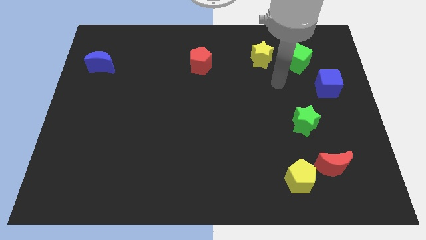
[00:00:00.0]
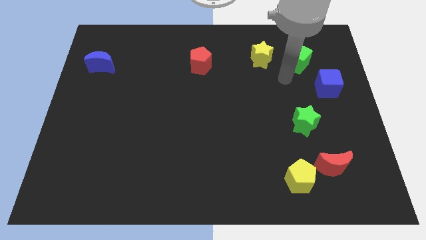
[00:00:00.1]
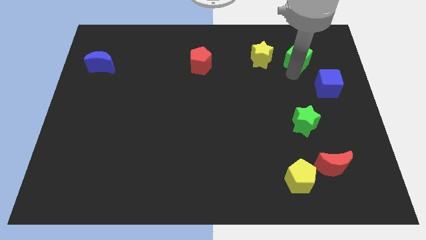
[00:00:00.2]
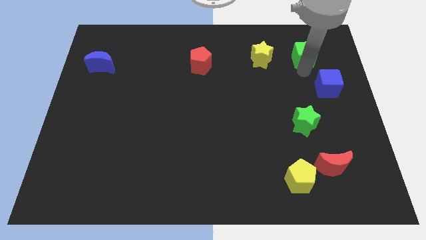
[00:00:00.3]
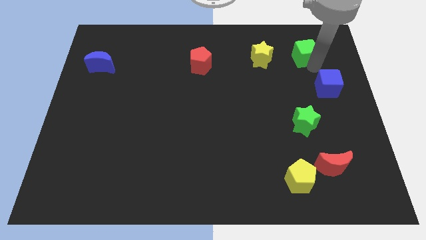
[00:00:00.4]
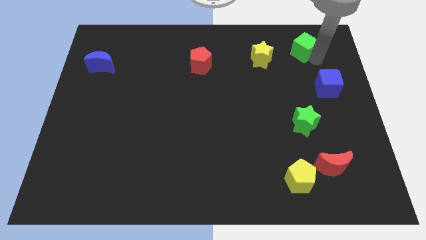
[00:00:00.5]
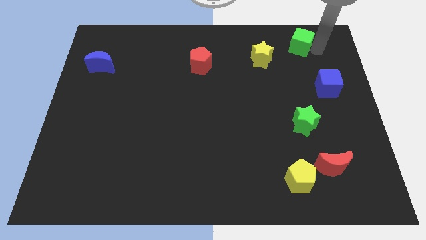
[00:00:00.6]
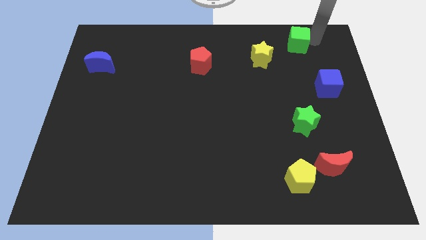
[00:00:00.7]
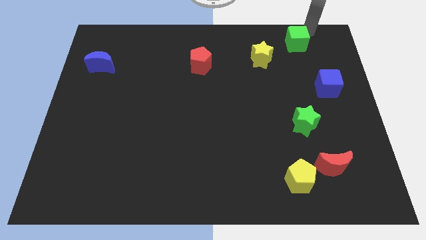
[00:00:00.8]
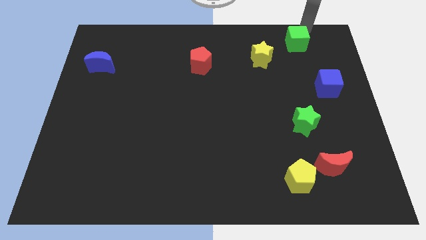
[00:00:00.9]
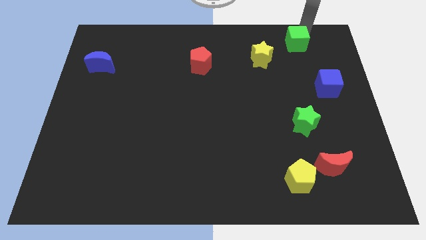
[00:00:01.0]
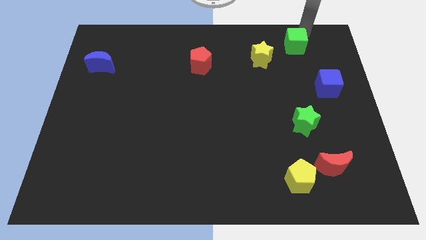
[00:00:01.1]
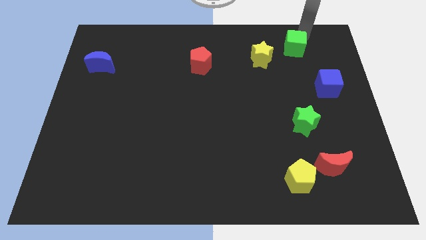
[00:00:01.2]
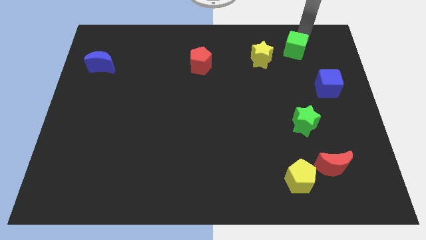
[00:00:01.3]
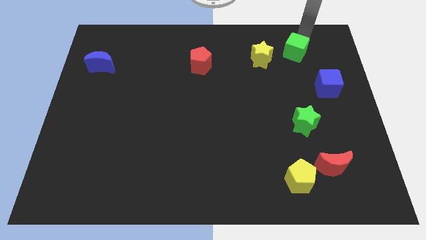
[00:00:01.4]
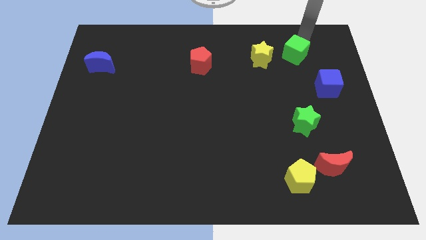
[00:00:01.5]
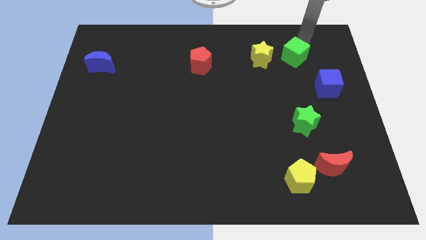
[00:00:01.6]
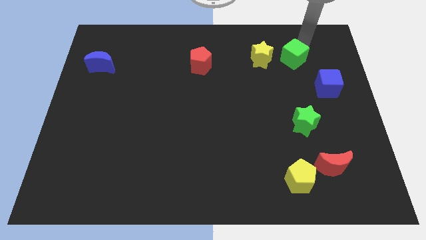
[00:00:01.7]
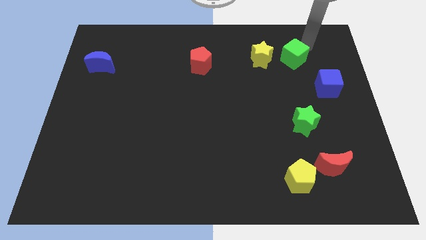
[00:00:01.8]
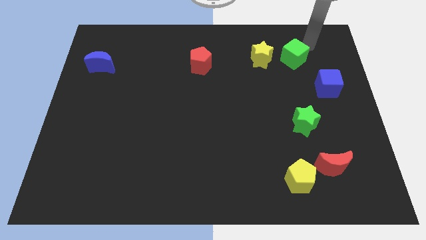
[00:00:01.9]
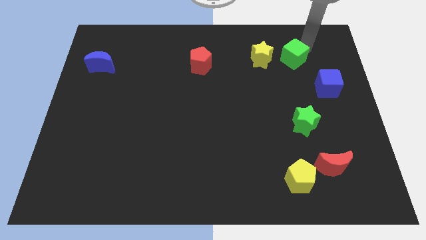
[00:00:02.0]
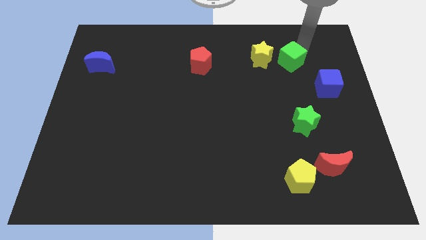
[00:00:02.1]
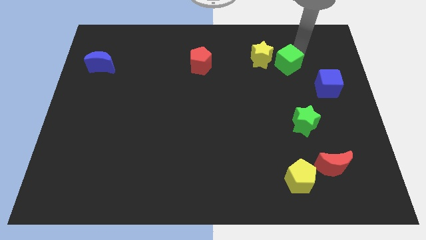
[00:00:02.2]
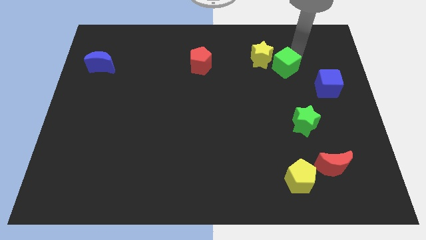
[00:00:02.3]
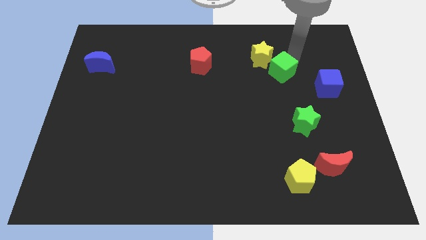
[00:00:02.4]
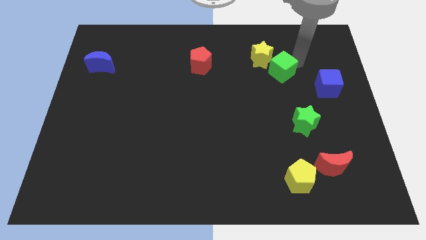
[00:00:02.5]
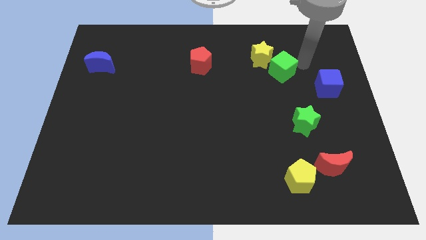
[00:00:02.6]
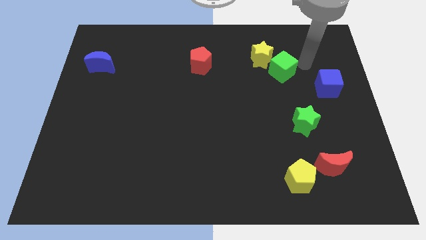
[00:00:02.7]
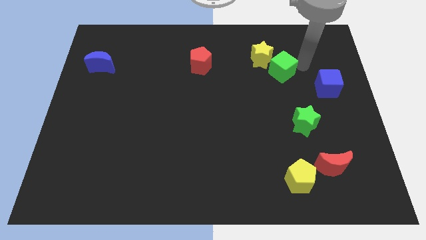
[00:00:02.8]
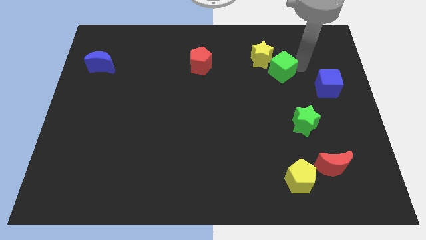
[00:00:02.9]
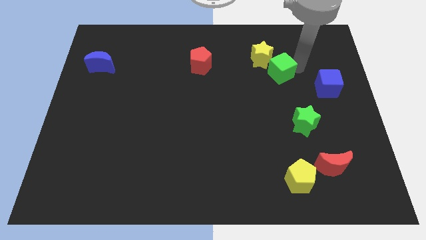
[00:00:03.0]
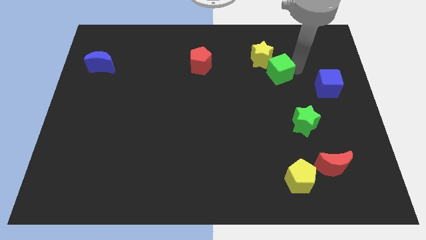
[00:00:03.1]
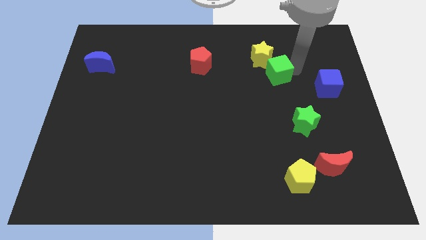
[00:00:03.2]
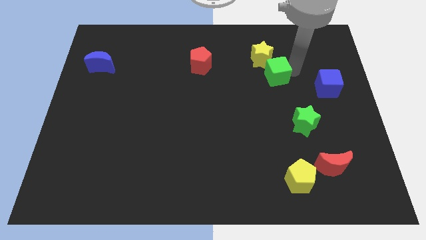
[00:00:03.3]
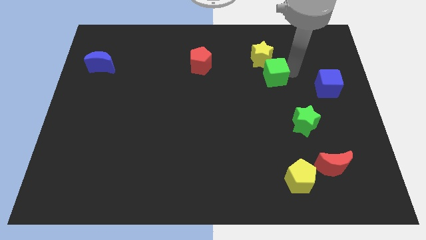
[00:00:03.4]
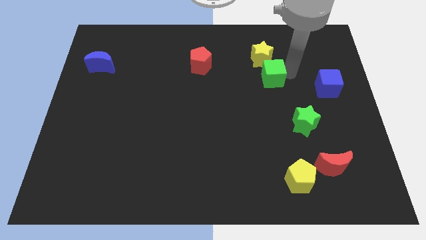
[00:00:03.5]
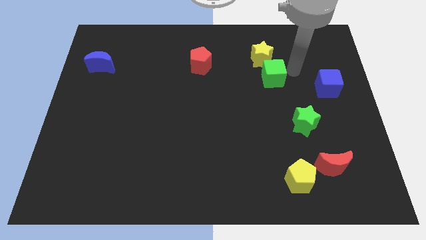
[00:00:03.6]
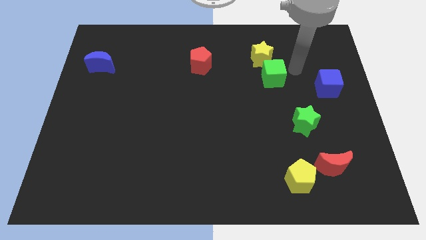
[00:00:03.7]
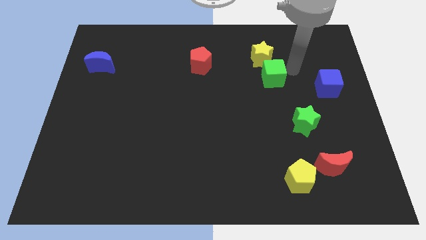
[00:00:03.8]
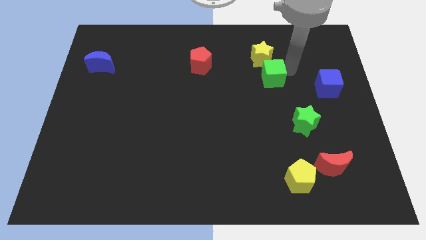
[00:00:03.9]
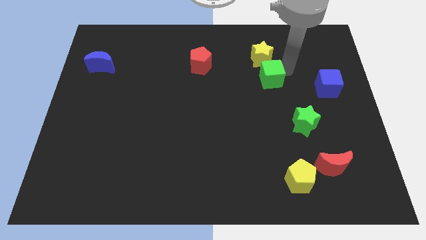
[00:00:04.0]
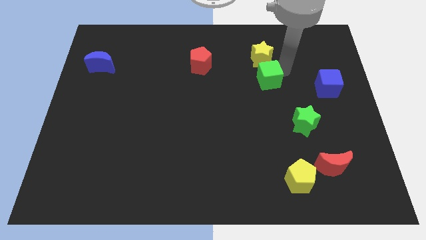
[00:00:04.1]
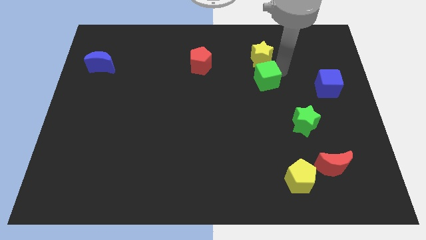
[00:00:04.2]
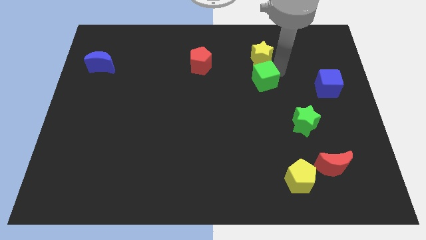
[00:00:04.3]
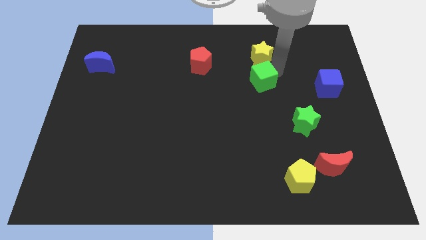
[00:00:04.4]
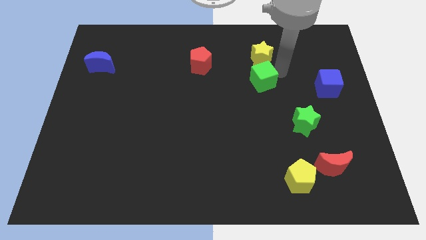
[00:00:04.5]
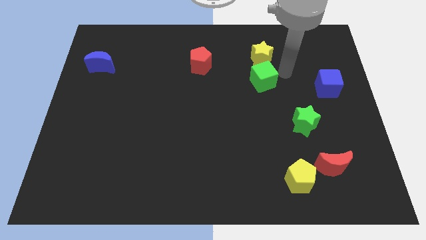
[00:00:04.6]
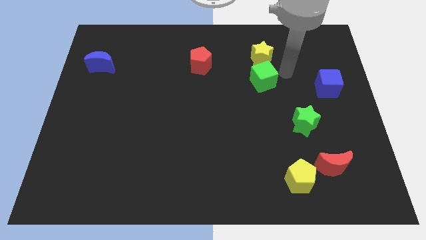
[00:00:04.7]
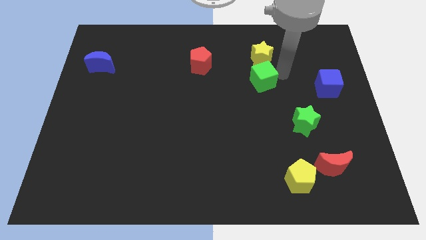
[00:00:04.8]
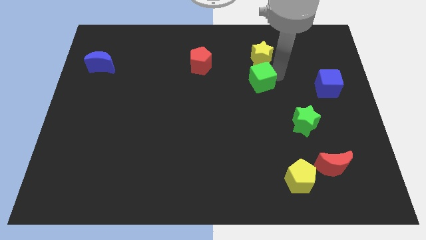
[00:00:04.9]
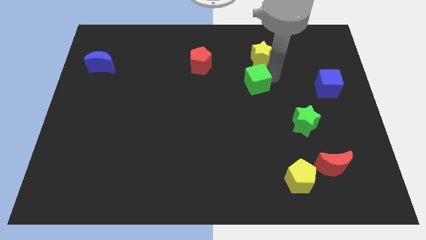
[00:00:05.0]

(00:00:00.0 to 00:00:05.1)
put the green cube to the center

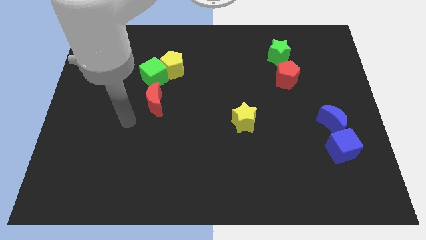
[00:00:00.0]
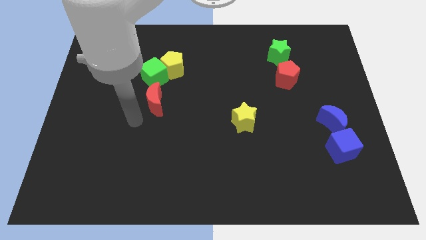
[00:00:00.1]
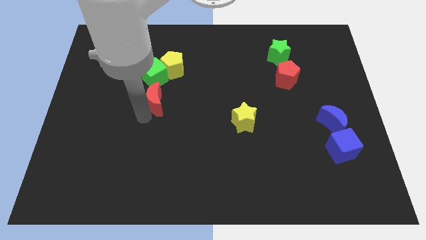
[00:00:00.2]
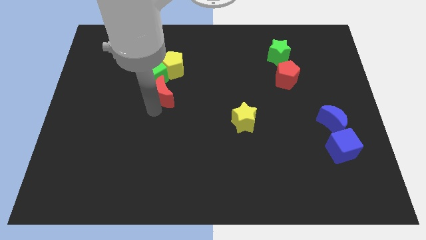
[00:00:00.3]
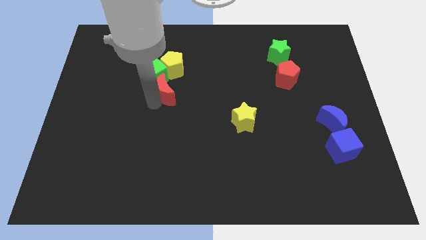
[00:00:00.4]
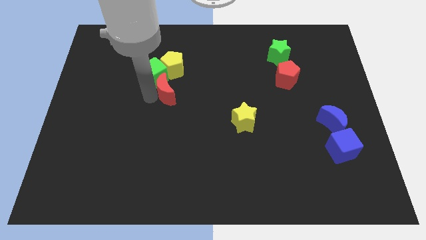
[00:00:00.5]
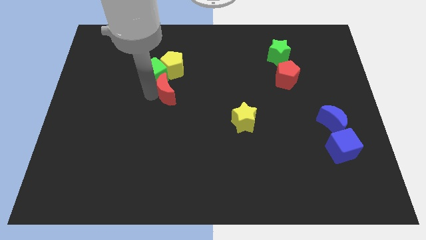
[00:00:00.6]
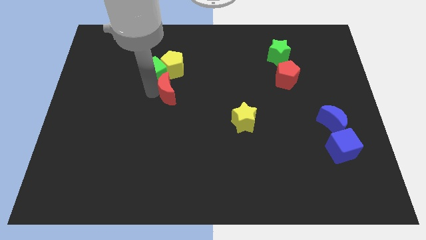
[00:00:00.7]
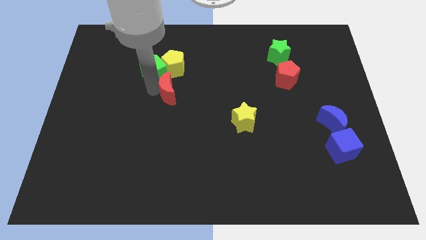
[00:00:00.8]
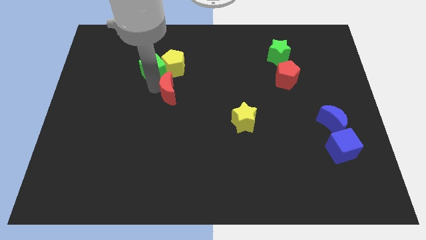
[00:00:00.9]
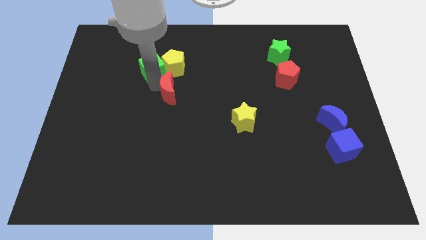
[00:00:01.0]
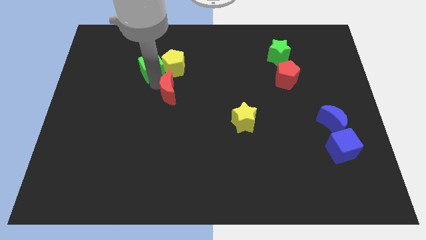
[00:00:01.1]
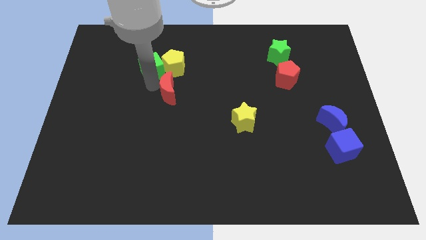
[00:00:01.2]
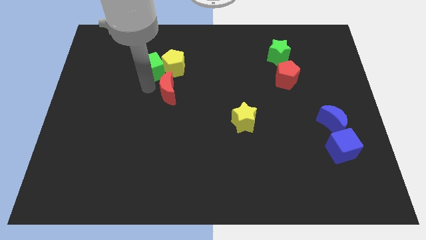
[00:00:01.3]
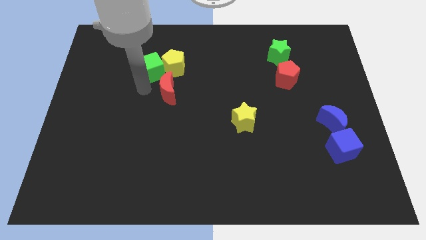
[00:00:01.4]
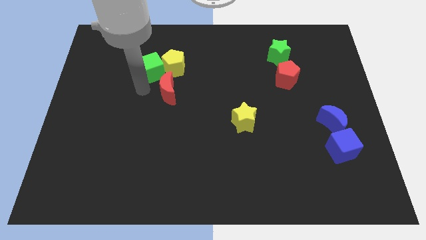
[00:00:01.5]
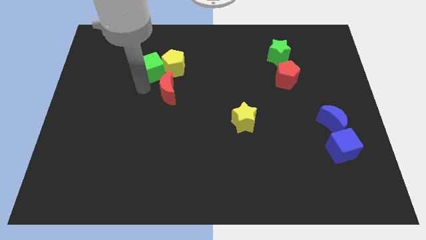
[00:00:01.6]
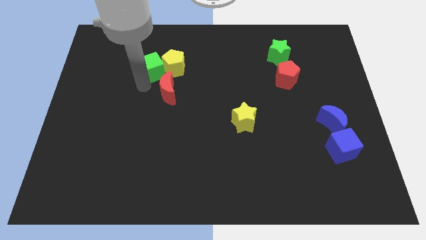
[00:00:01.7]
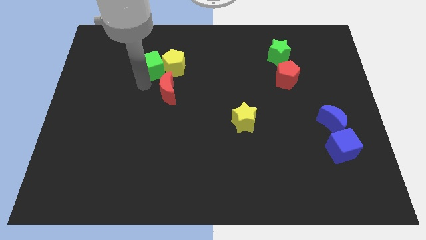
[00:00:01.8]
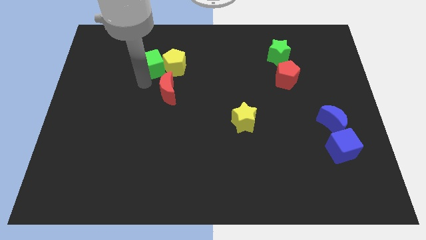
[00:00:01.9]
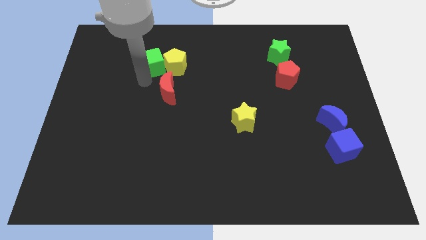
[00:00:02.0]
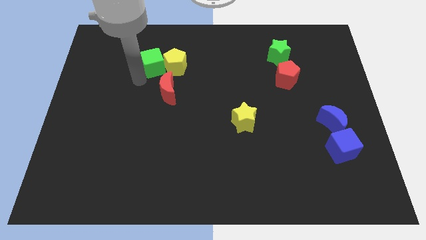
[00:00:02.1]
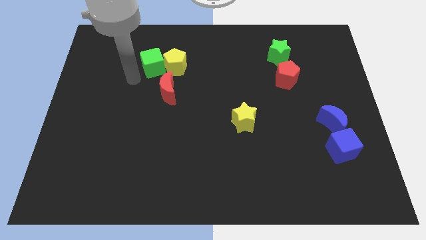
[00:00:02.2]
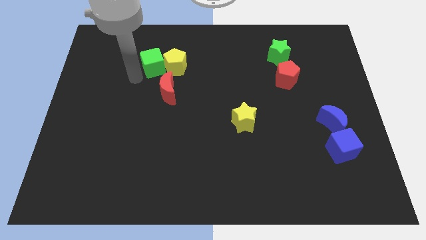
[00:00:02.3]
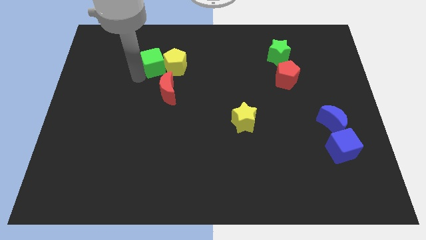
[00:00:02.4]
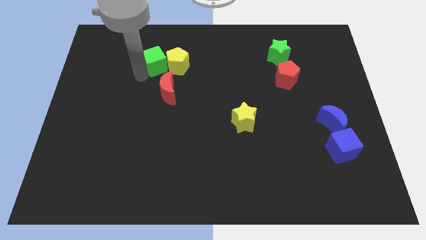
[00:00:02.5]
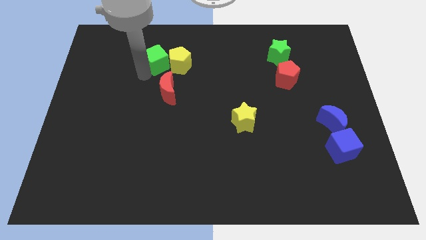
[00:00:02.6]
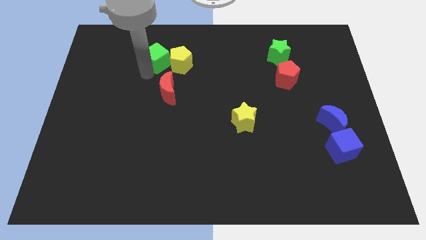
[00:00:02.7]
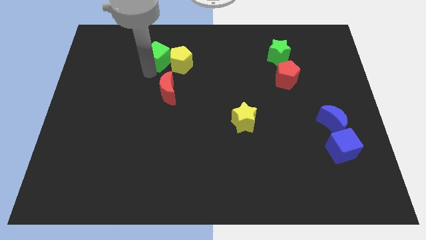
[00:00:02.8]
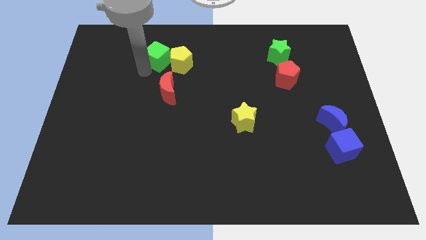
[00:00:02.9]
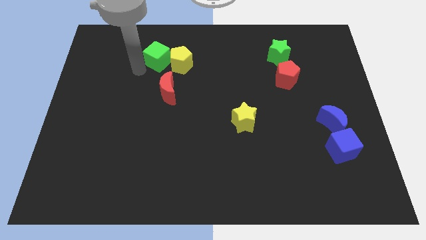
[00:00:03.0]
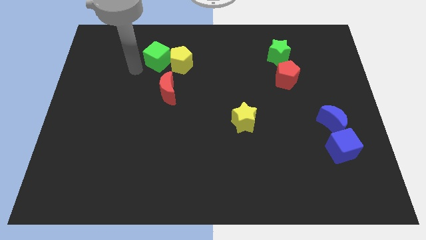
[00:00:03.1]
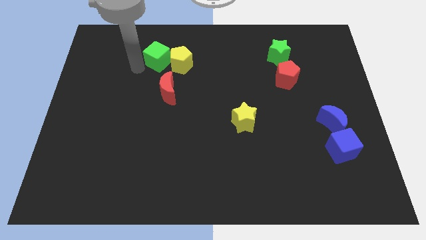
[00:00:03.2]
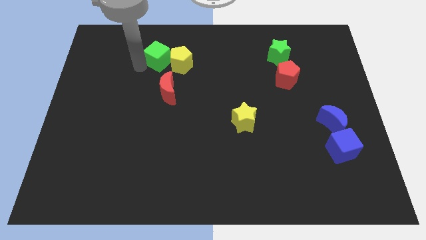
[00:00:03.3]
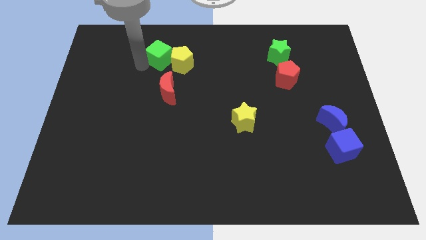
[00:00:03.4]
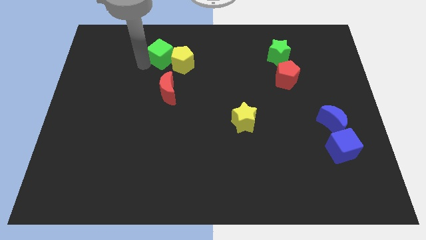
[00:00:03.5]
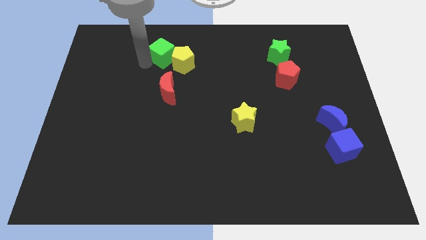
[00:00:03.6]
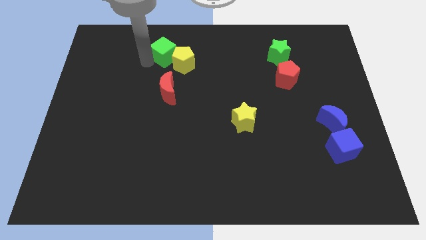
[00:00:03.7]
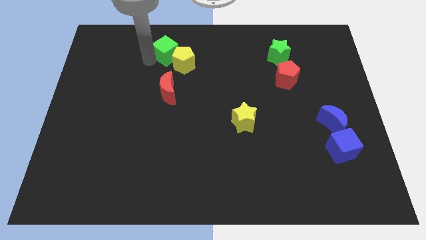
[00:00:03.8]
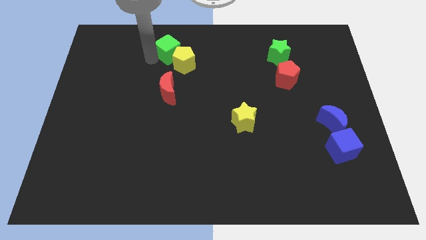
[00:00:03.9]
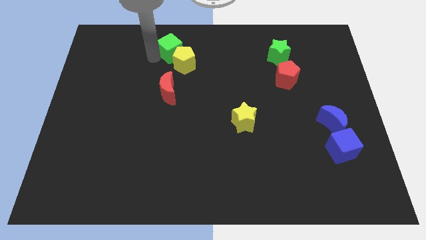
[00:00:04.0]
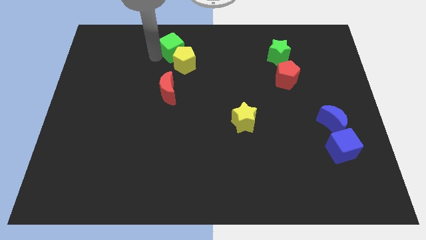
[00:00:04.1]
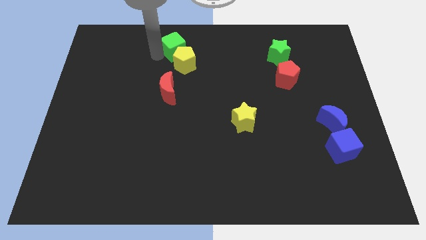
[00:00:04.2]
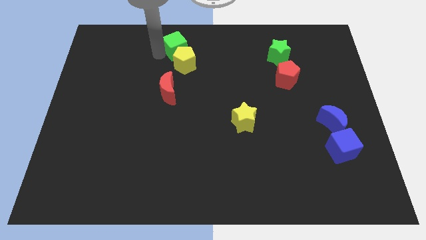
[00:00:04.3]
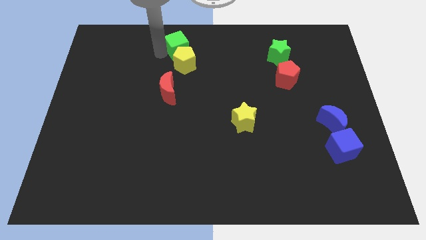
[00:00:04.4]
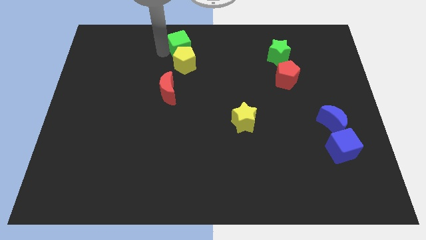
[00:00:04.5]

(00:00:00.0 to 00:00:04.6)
move the green cube to the top side
